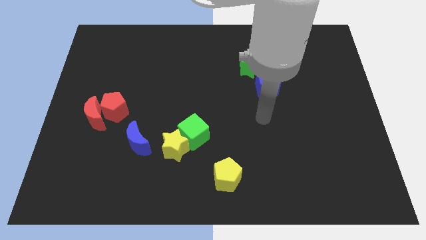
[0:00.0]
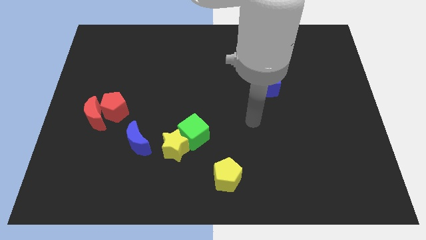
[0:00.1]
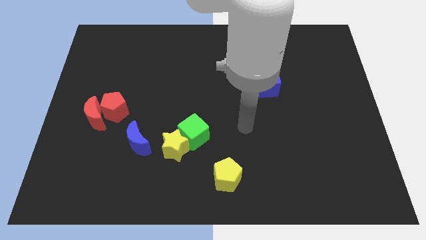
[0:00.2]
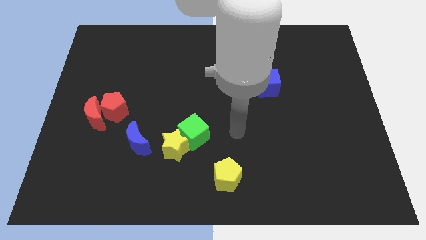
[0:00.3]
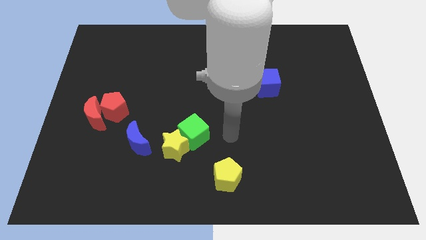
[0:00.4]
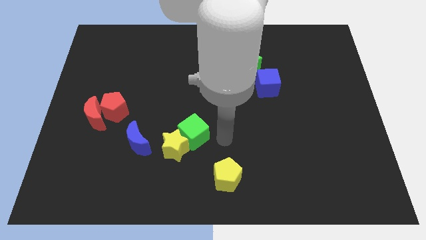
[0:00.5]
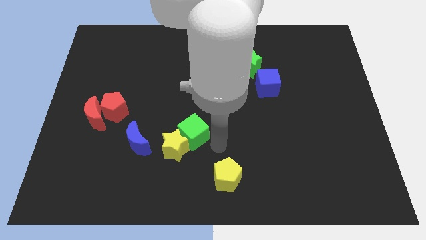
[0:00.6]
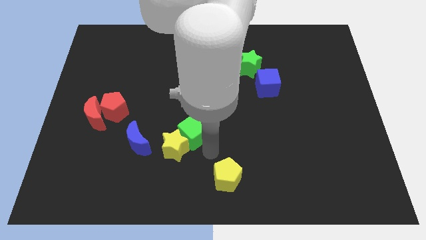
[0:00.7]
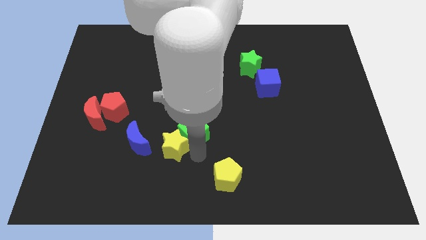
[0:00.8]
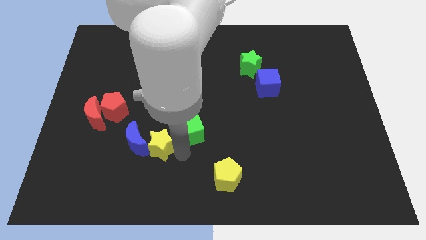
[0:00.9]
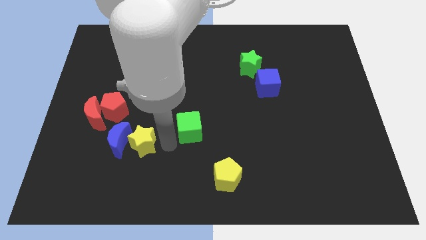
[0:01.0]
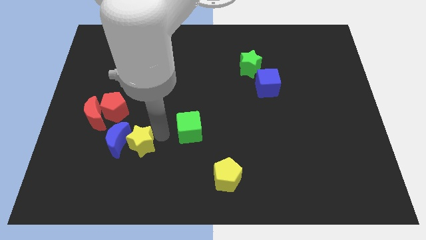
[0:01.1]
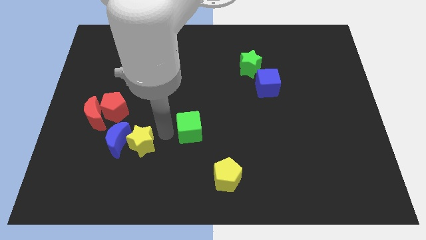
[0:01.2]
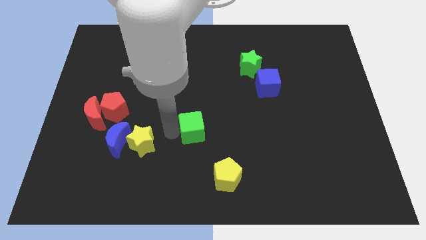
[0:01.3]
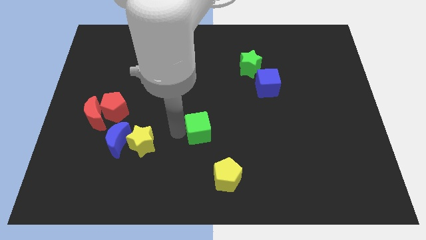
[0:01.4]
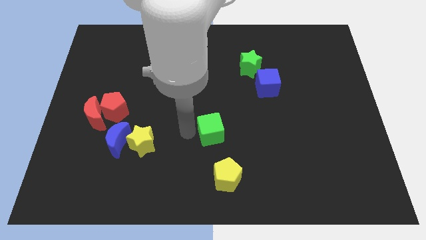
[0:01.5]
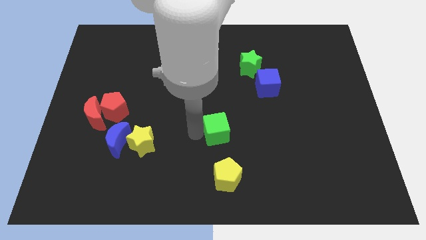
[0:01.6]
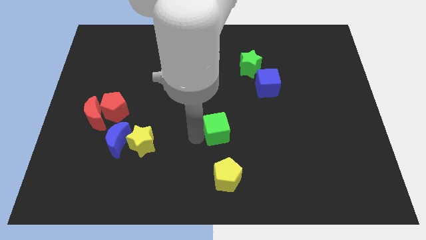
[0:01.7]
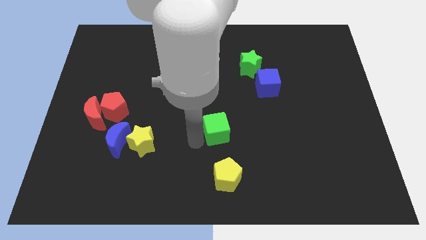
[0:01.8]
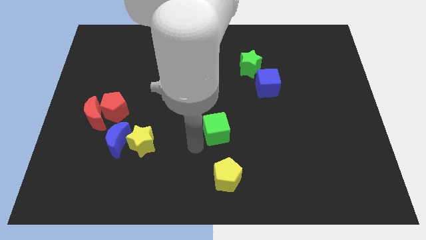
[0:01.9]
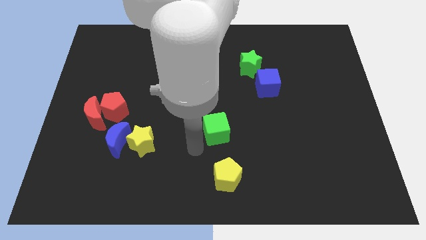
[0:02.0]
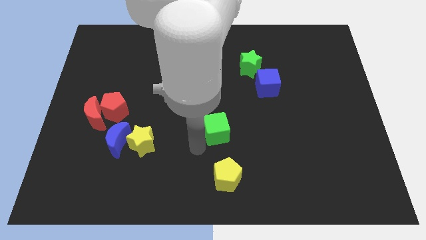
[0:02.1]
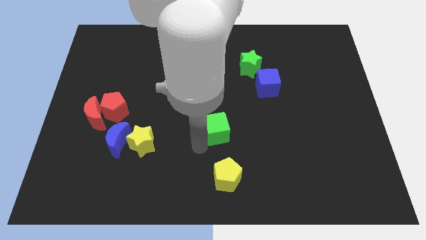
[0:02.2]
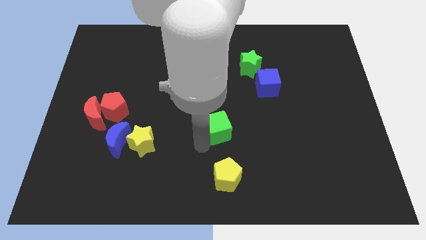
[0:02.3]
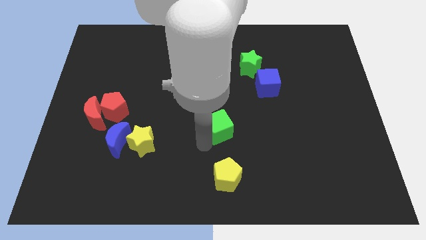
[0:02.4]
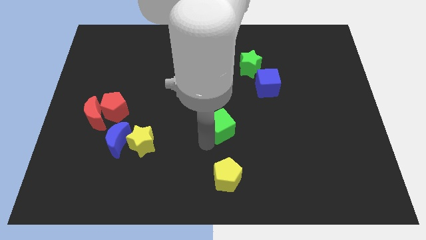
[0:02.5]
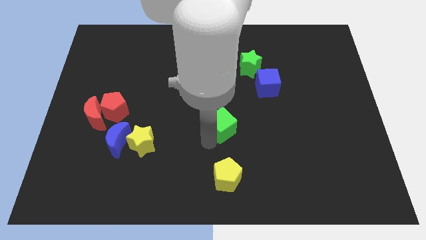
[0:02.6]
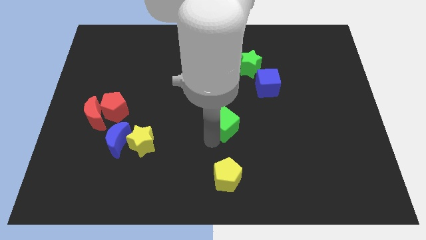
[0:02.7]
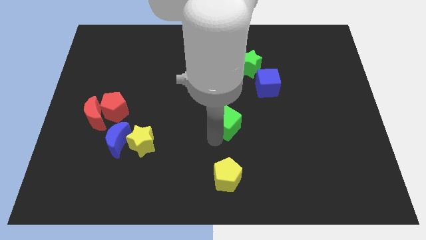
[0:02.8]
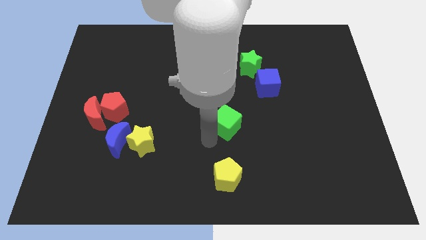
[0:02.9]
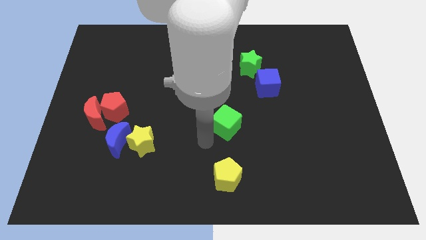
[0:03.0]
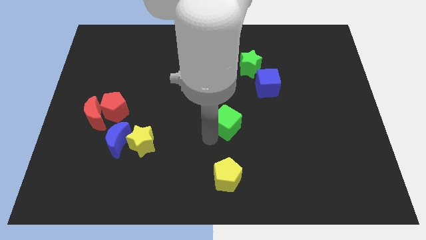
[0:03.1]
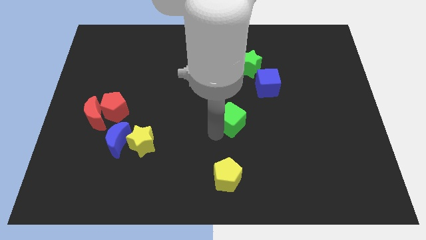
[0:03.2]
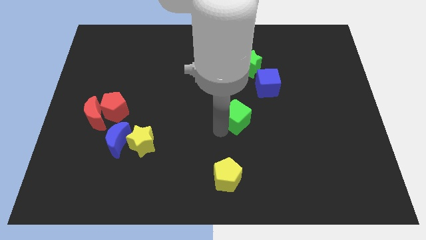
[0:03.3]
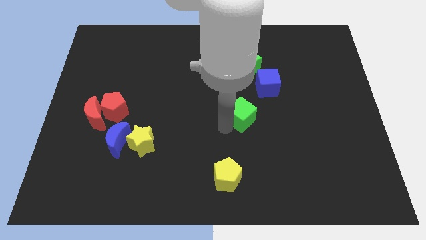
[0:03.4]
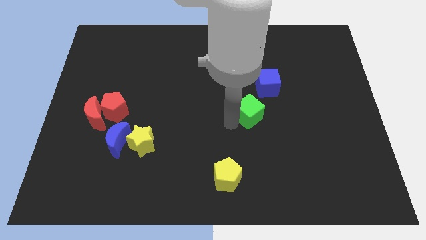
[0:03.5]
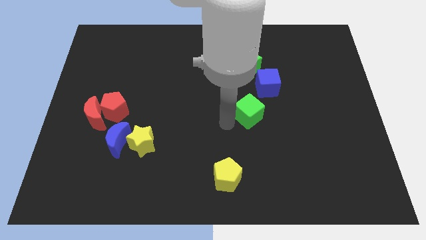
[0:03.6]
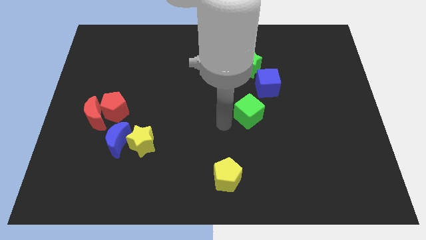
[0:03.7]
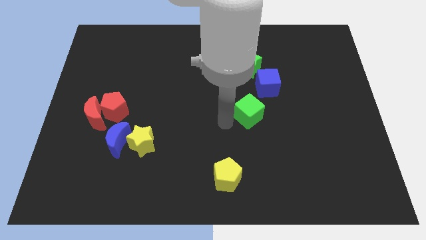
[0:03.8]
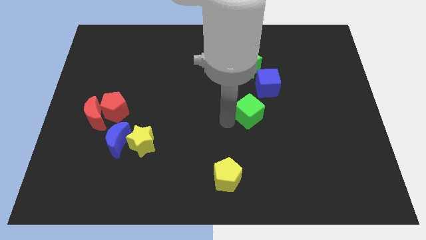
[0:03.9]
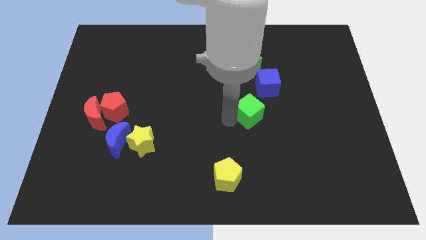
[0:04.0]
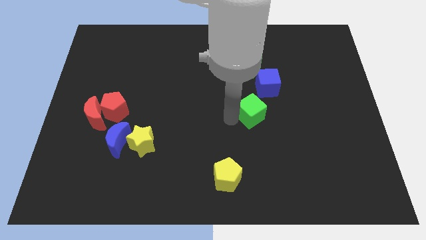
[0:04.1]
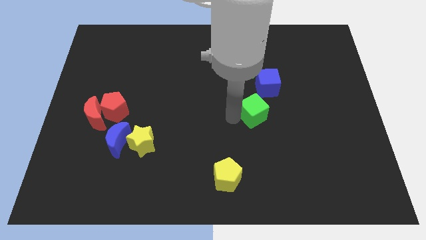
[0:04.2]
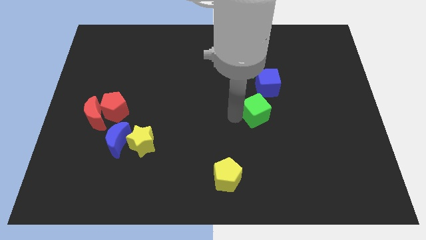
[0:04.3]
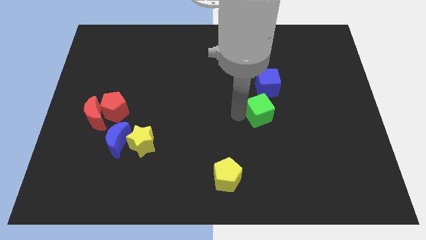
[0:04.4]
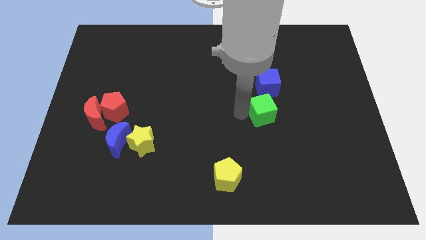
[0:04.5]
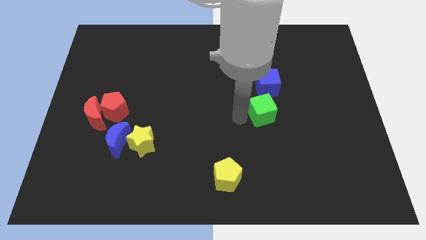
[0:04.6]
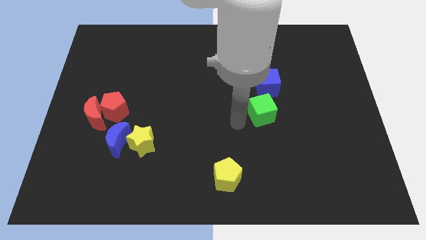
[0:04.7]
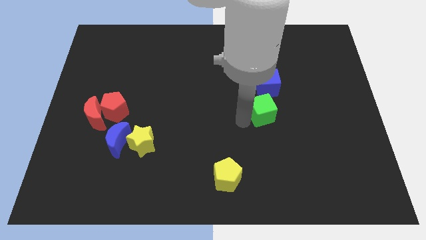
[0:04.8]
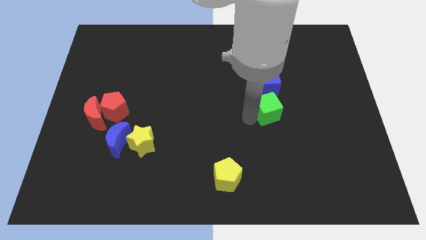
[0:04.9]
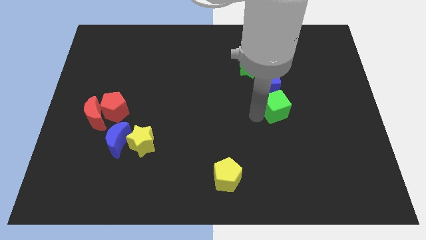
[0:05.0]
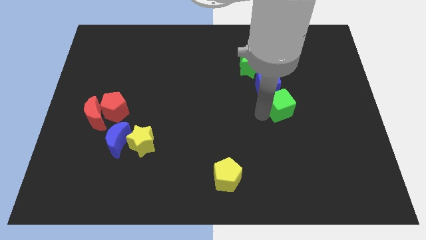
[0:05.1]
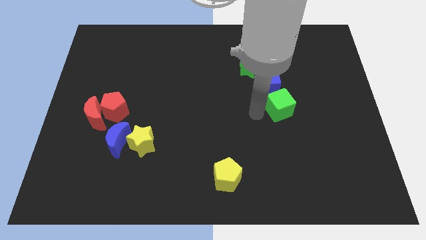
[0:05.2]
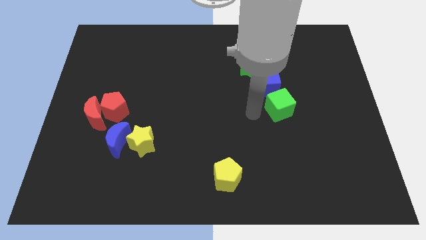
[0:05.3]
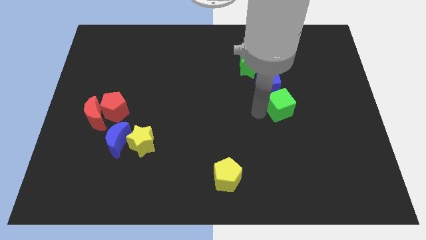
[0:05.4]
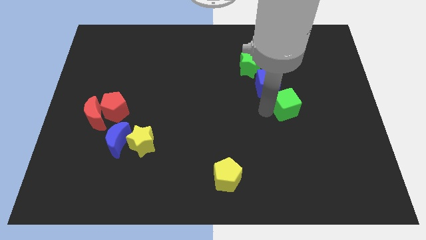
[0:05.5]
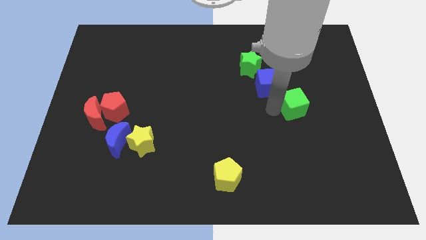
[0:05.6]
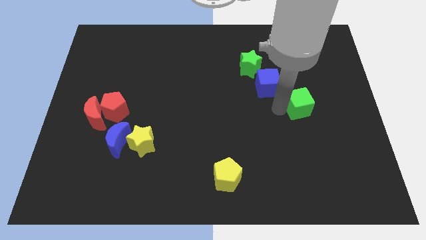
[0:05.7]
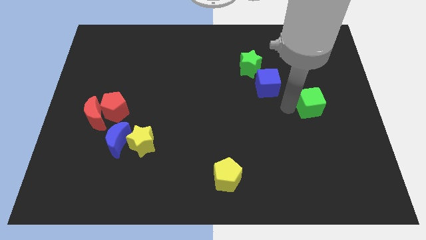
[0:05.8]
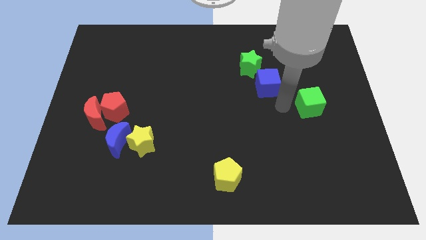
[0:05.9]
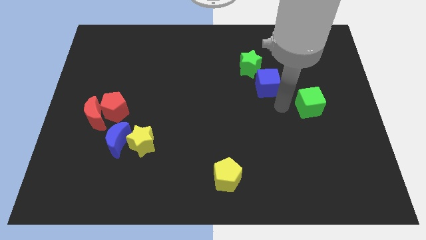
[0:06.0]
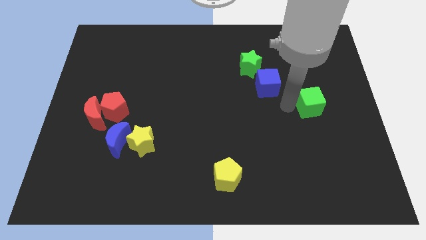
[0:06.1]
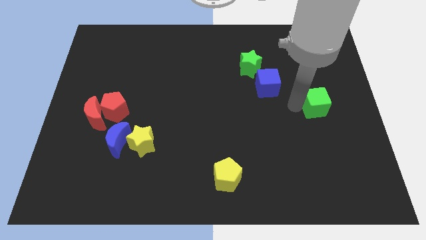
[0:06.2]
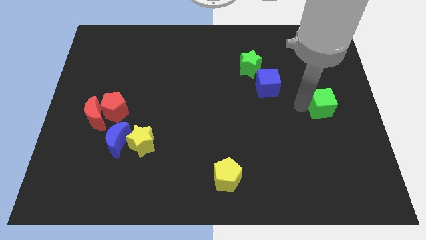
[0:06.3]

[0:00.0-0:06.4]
push the green cube to the right side of the board
